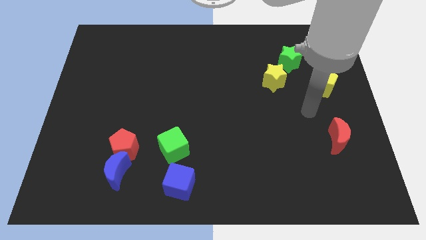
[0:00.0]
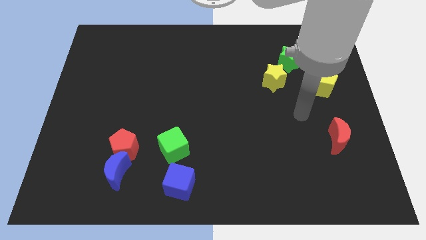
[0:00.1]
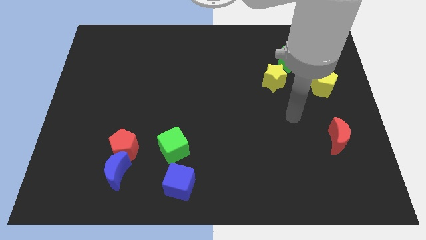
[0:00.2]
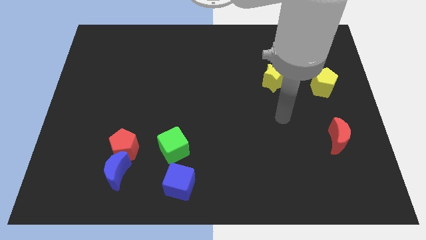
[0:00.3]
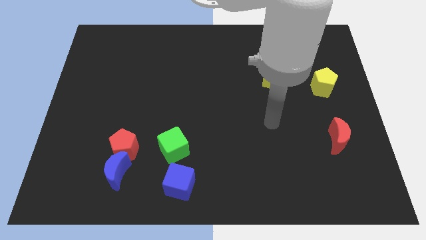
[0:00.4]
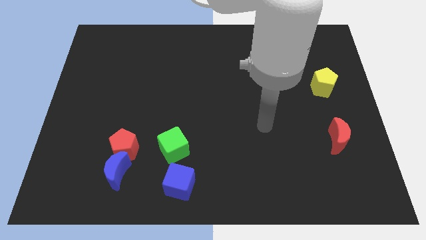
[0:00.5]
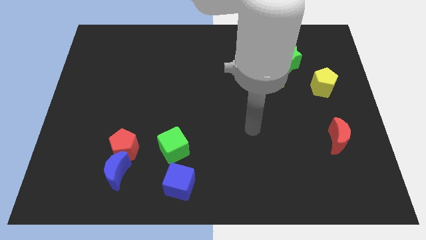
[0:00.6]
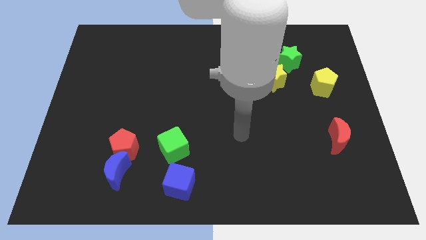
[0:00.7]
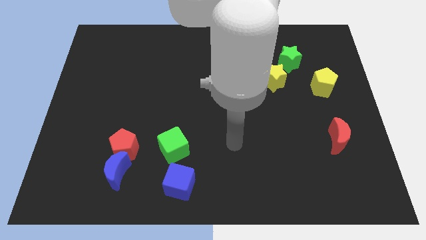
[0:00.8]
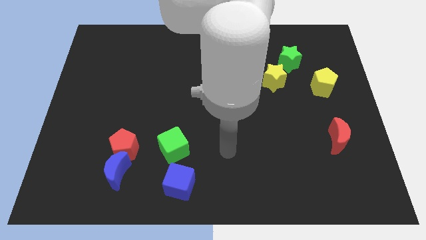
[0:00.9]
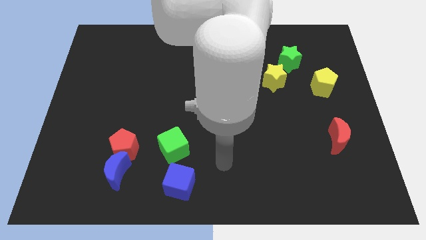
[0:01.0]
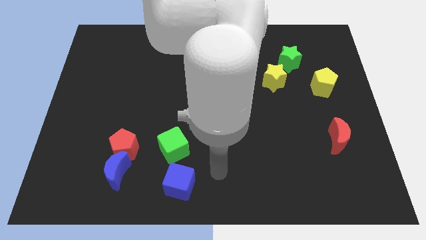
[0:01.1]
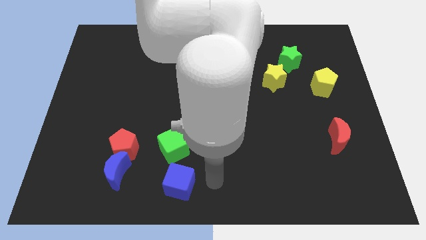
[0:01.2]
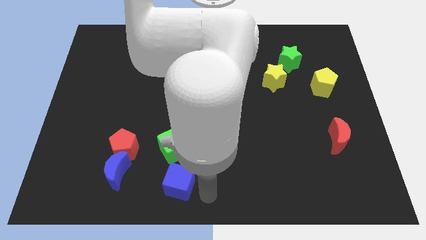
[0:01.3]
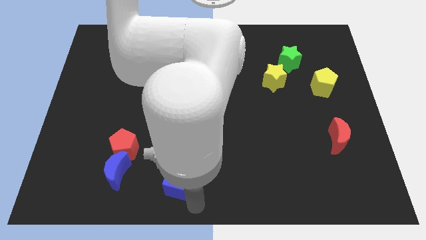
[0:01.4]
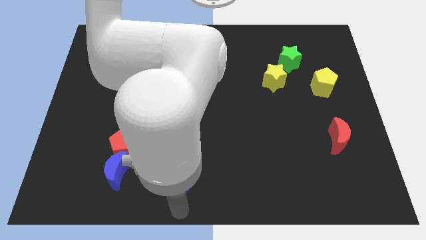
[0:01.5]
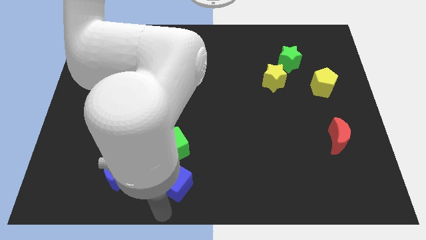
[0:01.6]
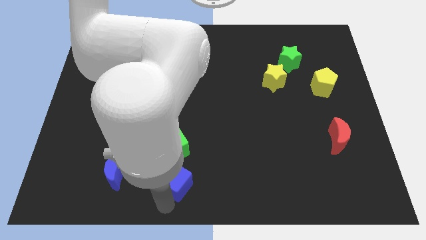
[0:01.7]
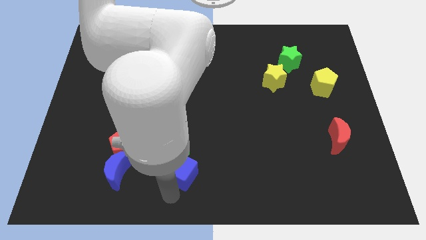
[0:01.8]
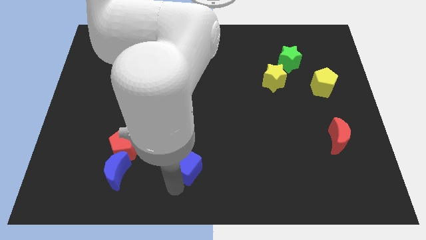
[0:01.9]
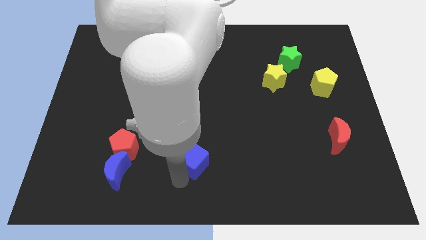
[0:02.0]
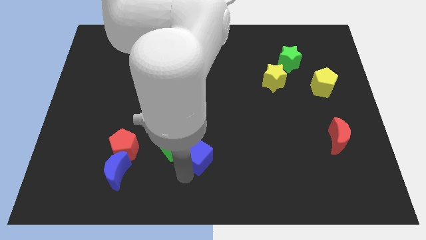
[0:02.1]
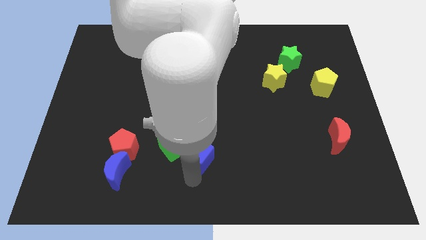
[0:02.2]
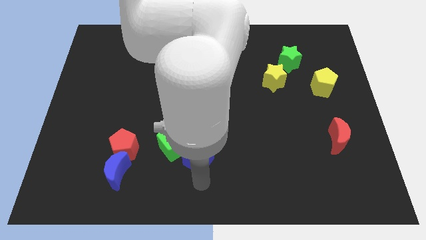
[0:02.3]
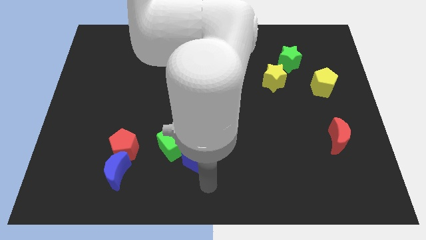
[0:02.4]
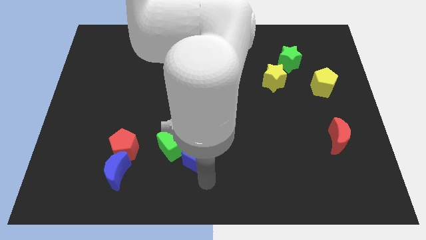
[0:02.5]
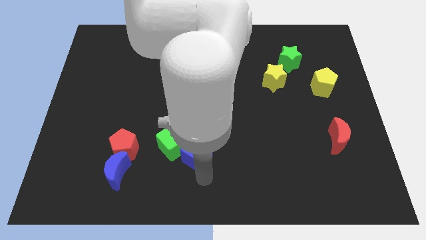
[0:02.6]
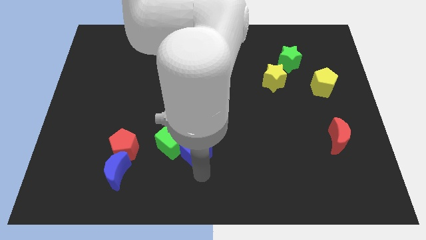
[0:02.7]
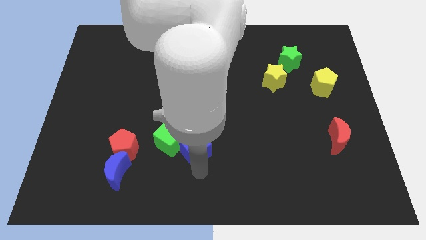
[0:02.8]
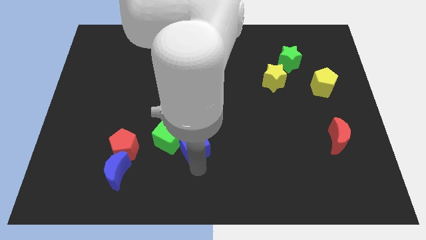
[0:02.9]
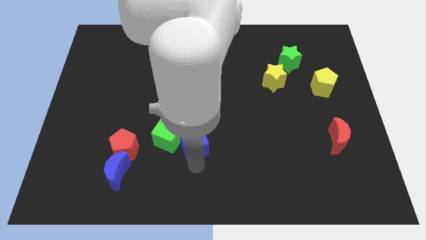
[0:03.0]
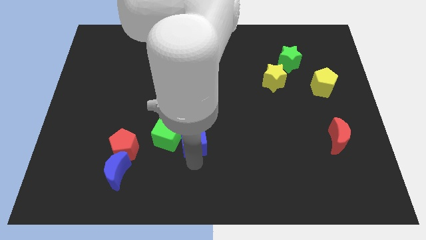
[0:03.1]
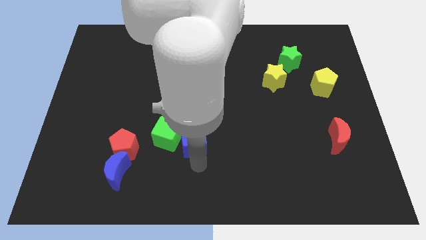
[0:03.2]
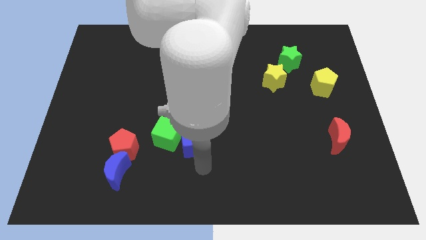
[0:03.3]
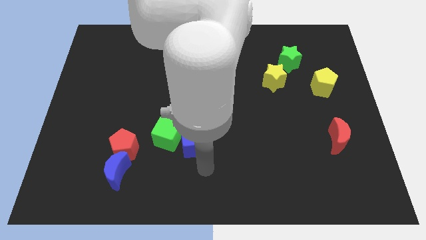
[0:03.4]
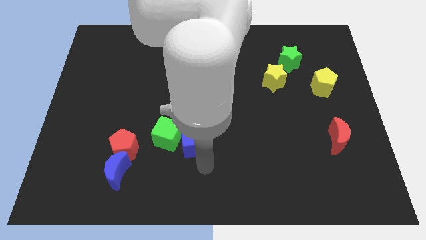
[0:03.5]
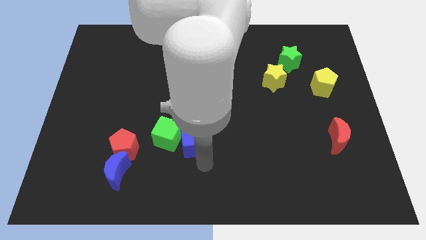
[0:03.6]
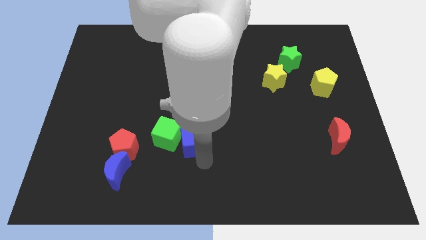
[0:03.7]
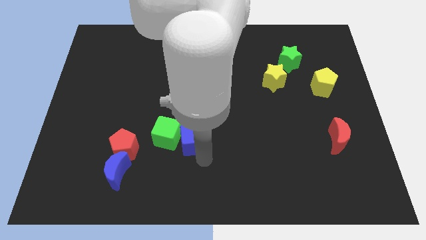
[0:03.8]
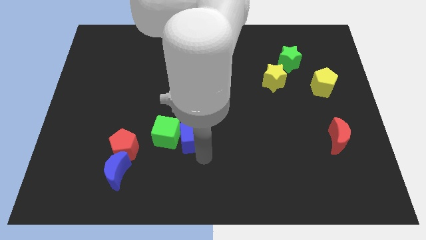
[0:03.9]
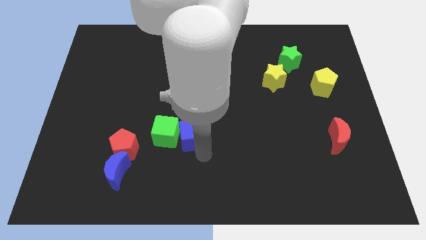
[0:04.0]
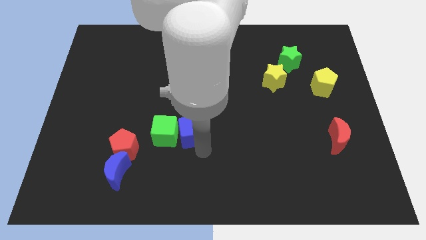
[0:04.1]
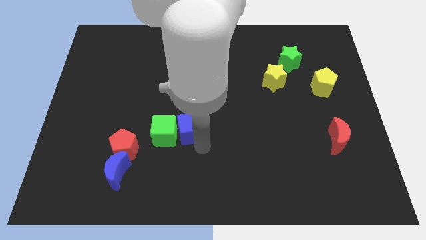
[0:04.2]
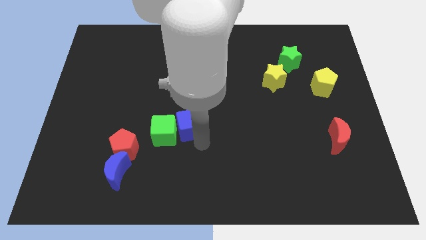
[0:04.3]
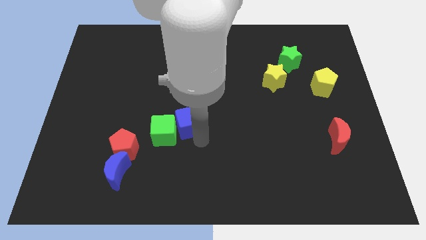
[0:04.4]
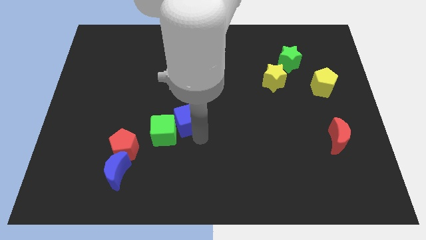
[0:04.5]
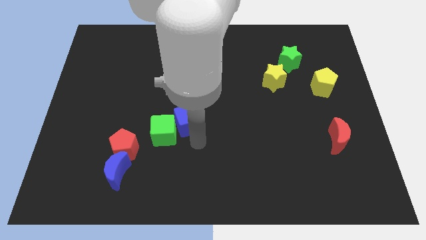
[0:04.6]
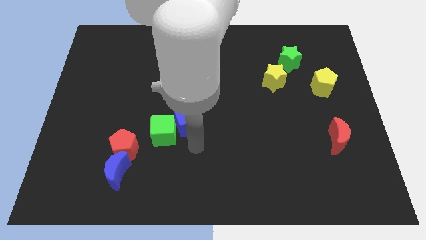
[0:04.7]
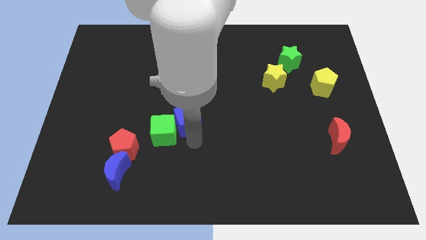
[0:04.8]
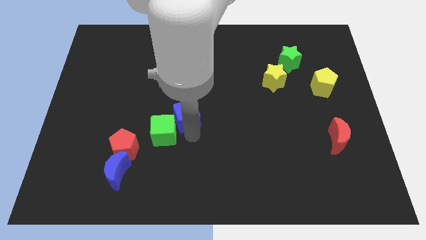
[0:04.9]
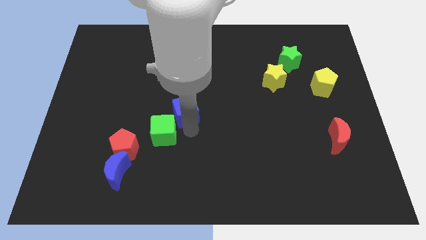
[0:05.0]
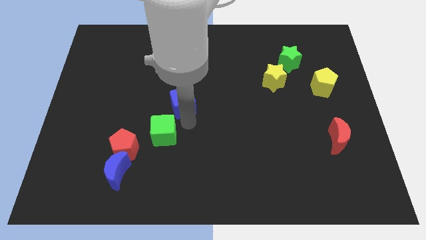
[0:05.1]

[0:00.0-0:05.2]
move the blue cube up

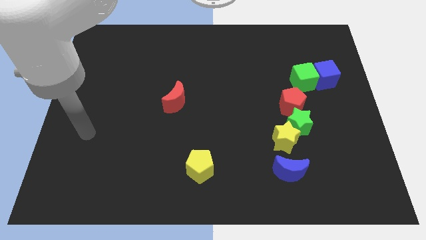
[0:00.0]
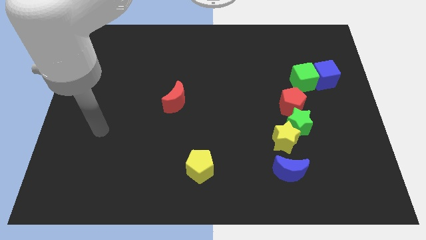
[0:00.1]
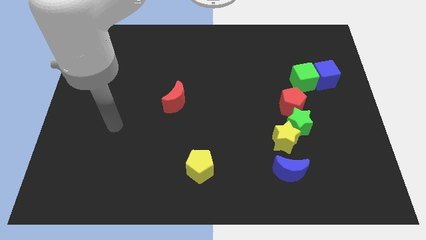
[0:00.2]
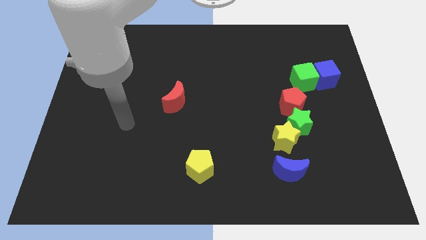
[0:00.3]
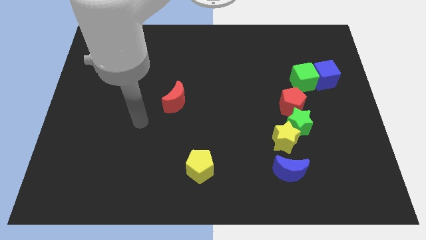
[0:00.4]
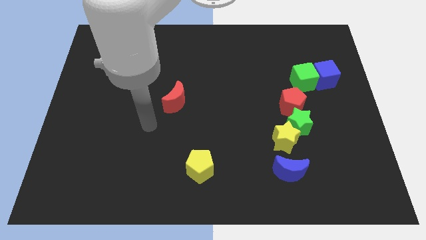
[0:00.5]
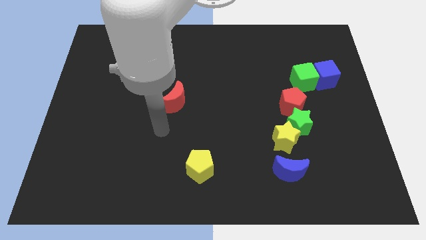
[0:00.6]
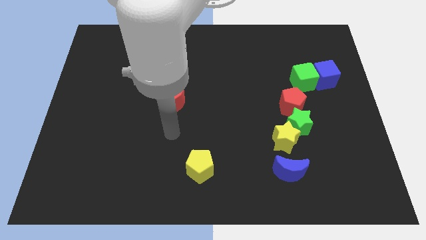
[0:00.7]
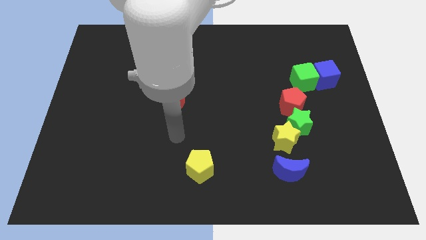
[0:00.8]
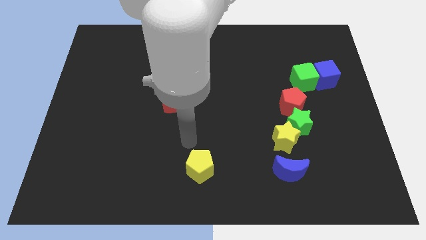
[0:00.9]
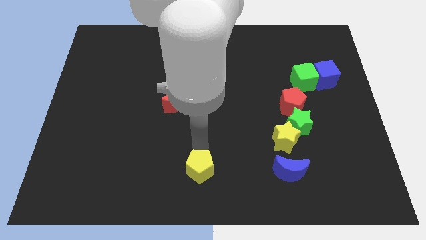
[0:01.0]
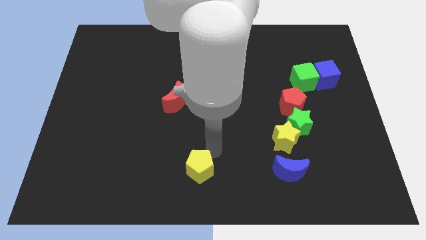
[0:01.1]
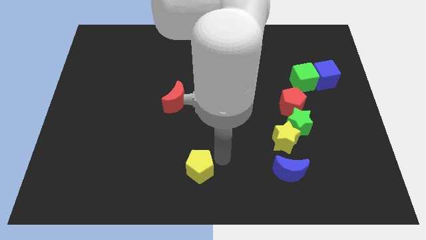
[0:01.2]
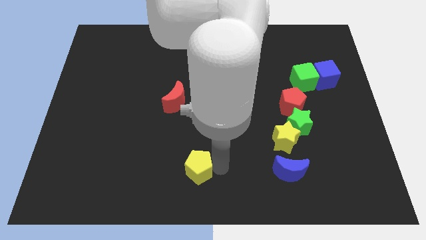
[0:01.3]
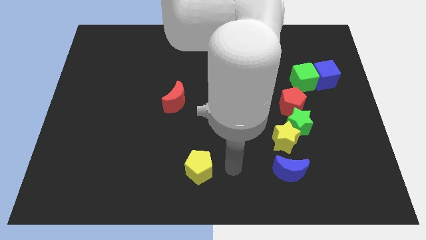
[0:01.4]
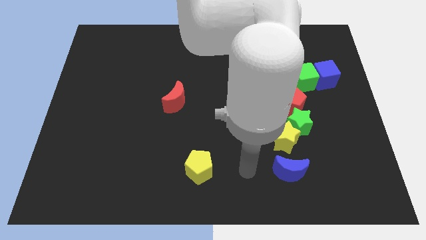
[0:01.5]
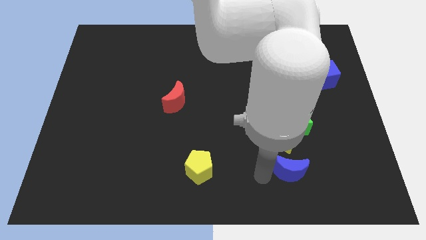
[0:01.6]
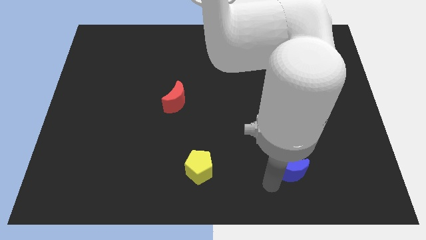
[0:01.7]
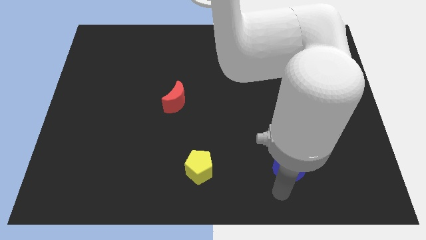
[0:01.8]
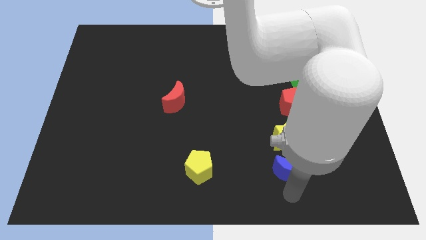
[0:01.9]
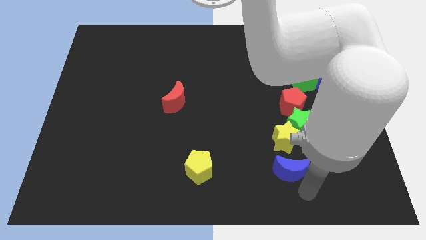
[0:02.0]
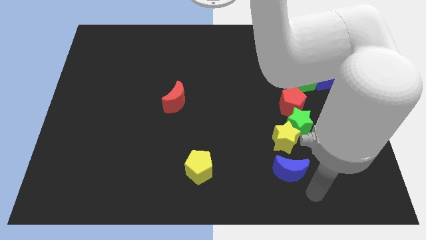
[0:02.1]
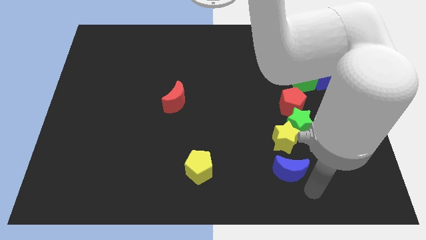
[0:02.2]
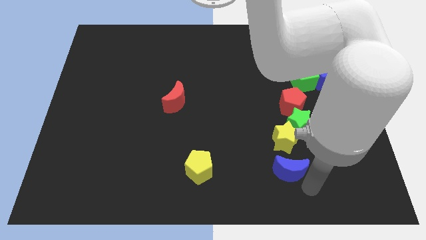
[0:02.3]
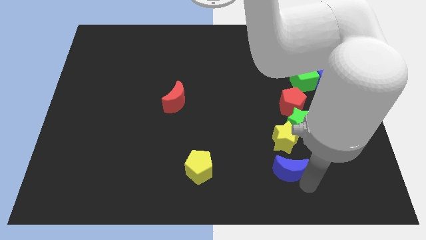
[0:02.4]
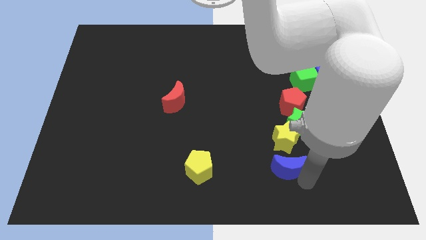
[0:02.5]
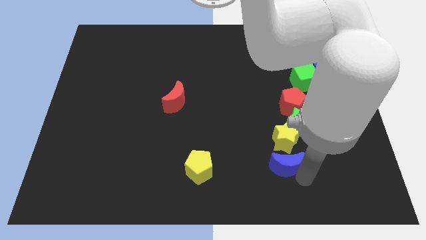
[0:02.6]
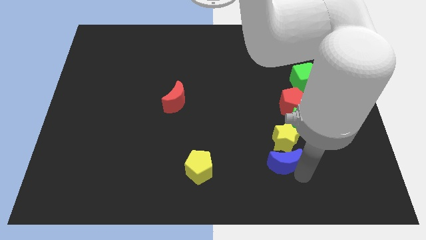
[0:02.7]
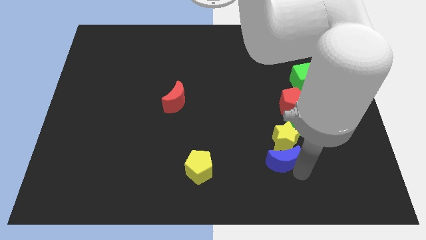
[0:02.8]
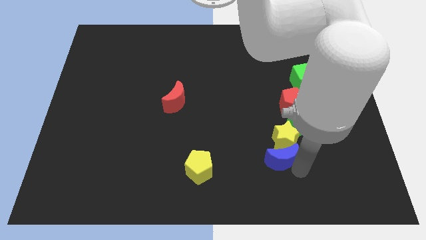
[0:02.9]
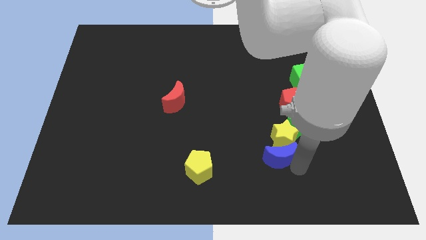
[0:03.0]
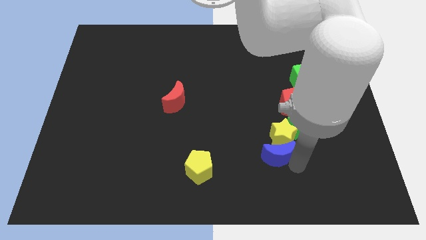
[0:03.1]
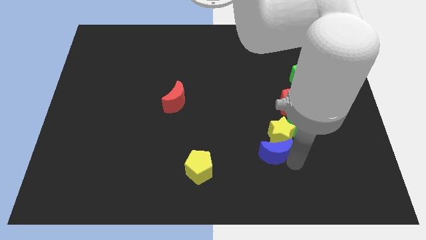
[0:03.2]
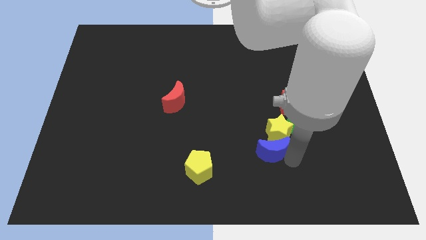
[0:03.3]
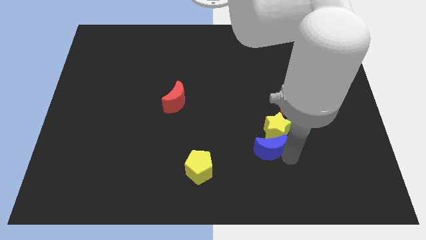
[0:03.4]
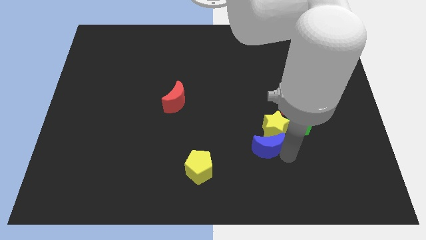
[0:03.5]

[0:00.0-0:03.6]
push the blue moon slightly diagonally upwards and to the left

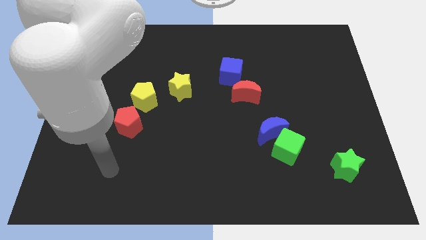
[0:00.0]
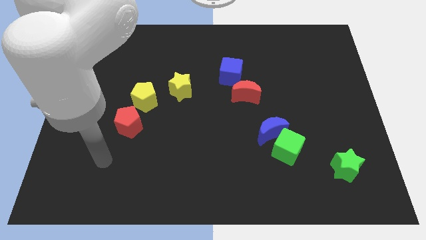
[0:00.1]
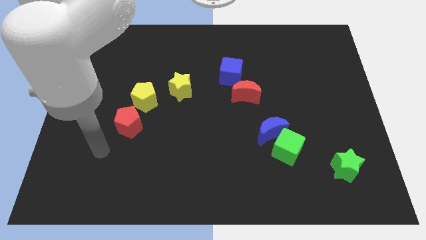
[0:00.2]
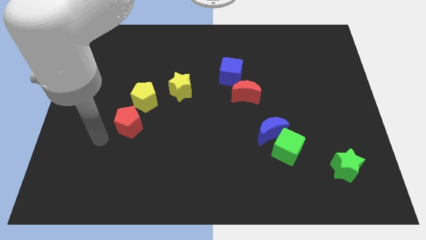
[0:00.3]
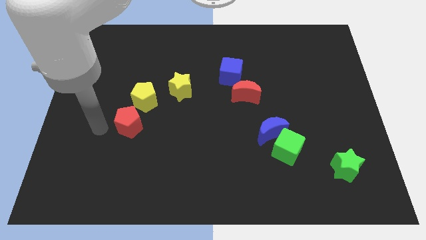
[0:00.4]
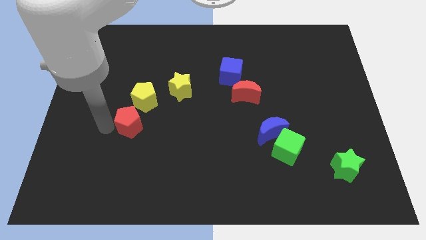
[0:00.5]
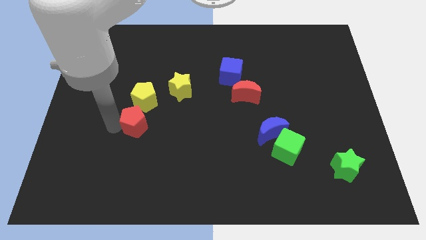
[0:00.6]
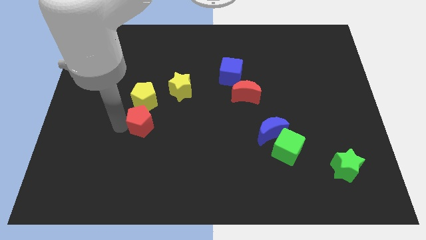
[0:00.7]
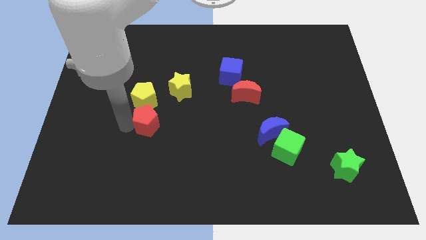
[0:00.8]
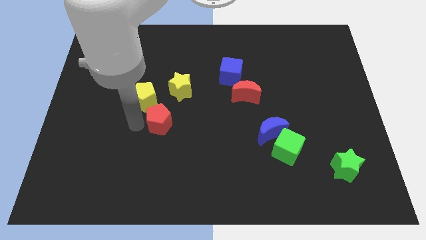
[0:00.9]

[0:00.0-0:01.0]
slightly slide the red pentagon to the right
